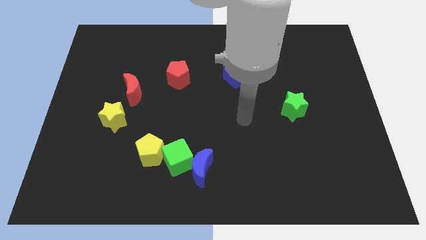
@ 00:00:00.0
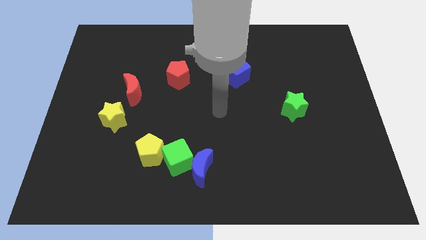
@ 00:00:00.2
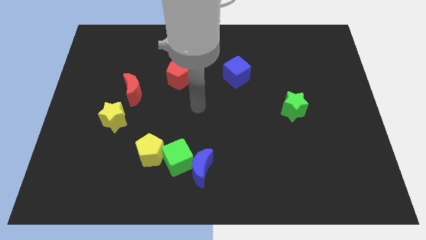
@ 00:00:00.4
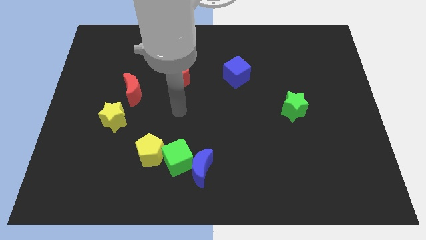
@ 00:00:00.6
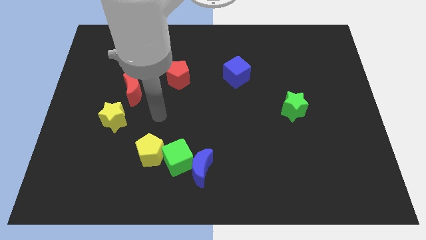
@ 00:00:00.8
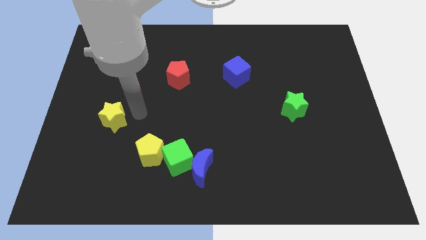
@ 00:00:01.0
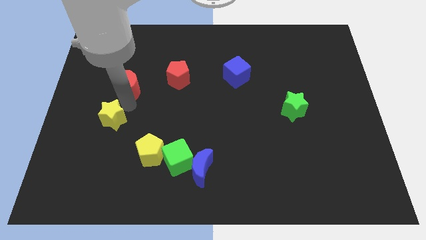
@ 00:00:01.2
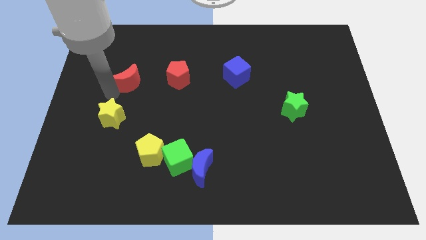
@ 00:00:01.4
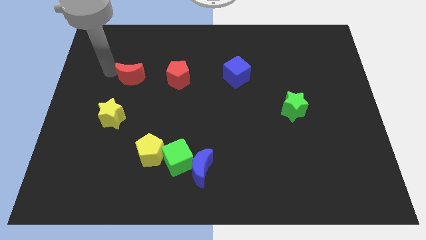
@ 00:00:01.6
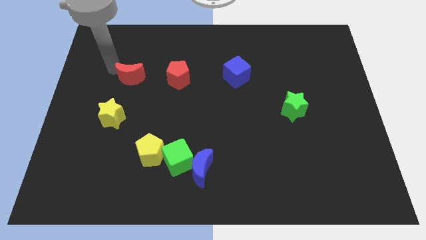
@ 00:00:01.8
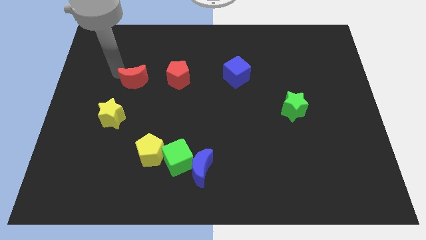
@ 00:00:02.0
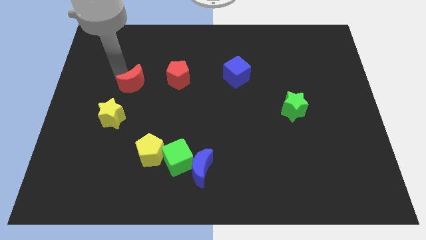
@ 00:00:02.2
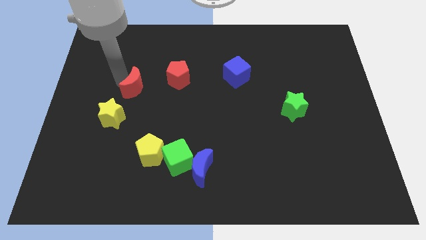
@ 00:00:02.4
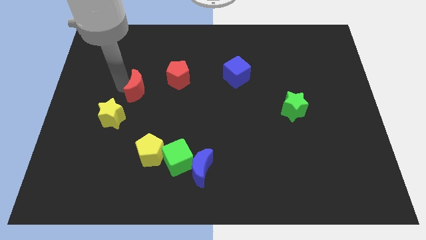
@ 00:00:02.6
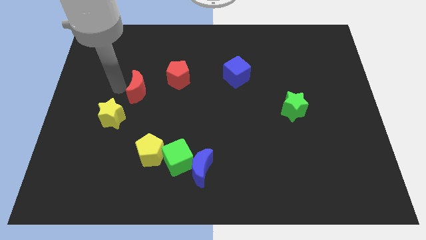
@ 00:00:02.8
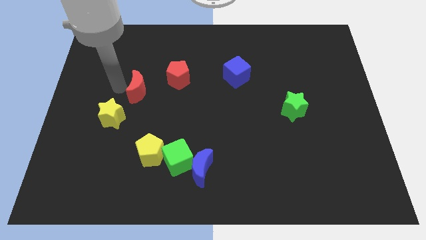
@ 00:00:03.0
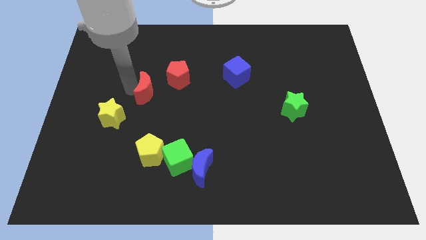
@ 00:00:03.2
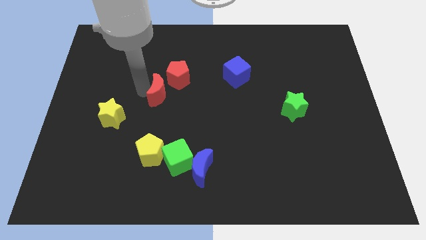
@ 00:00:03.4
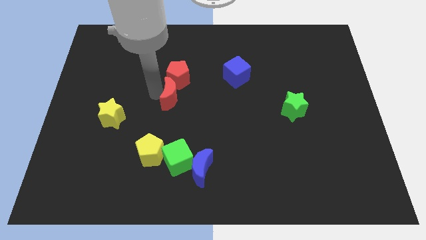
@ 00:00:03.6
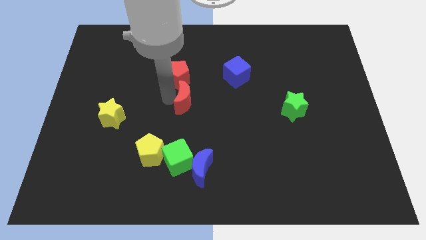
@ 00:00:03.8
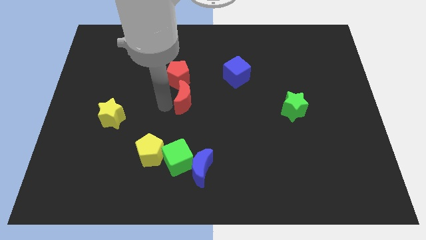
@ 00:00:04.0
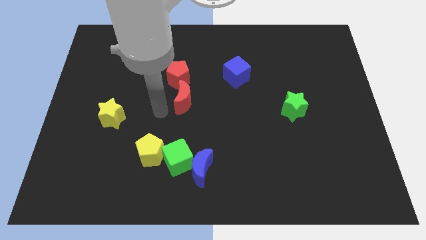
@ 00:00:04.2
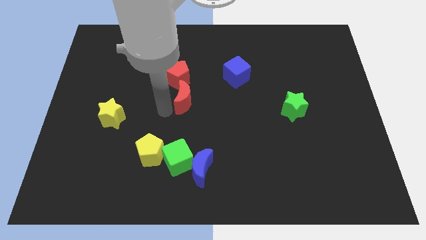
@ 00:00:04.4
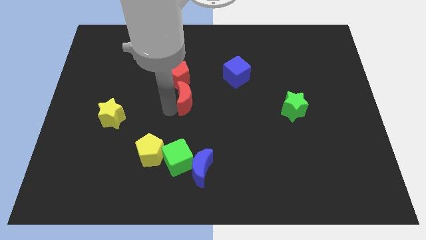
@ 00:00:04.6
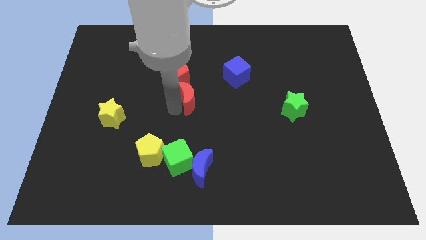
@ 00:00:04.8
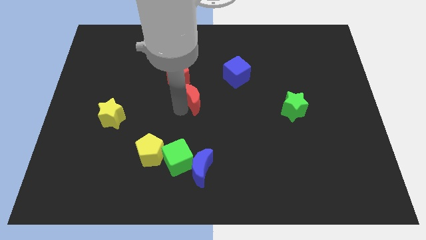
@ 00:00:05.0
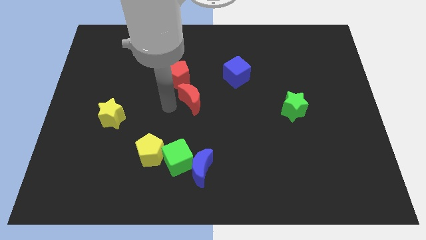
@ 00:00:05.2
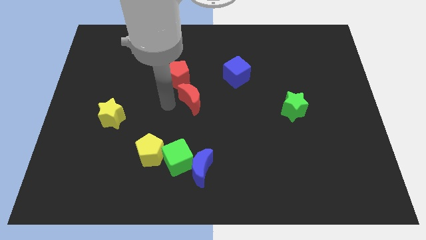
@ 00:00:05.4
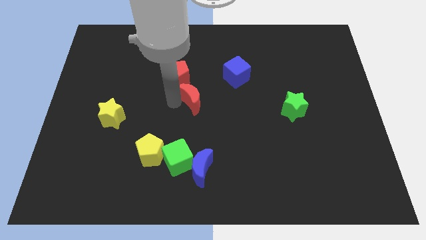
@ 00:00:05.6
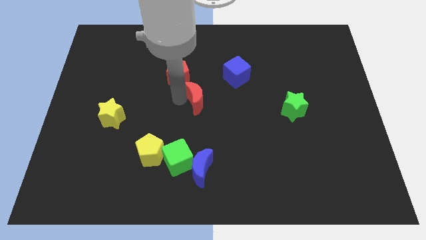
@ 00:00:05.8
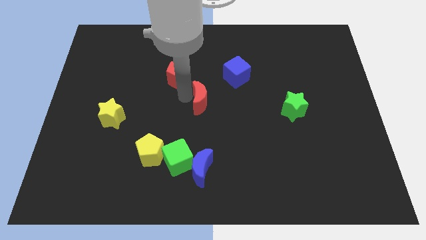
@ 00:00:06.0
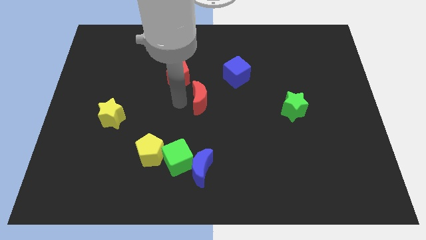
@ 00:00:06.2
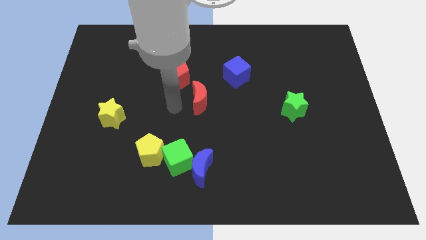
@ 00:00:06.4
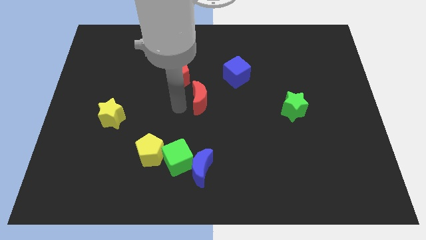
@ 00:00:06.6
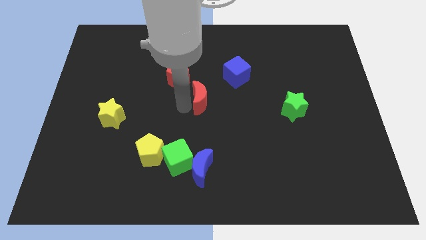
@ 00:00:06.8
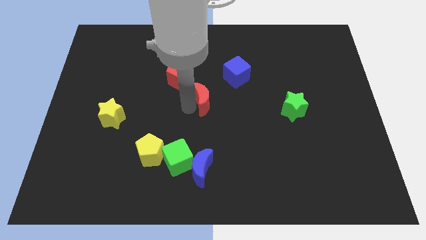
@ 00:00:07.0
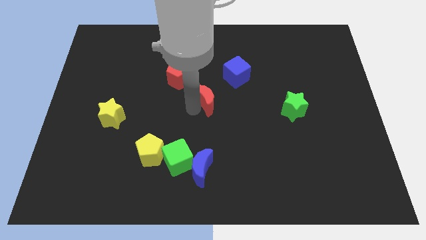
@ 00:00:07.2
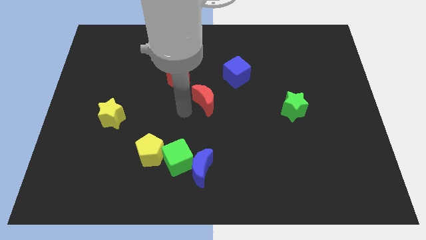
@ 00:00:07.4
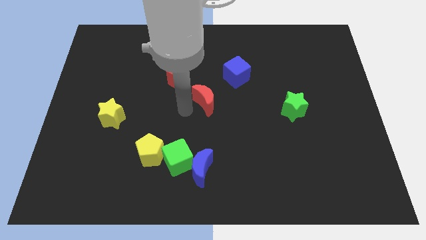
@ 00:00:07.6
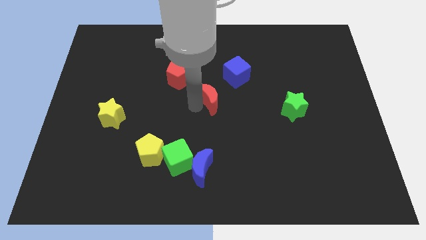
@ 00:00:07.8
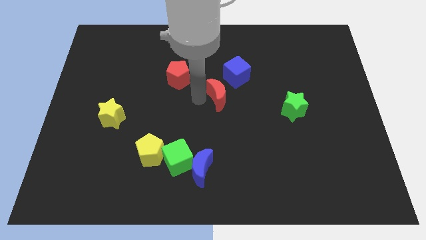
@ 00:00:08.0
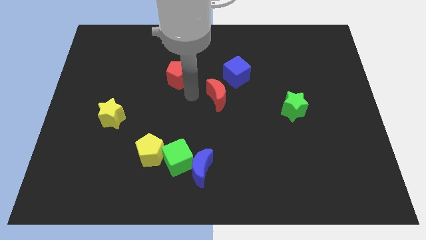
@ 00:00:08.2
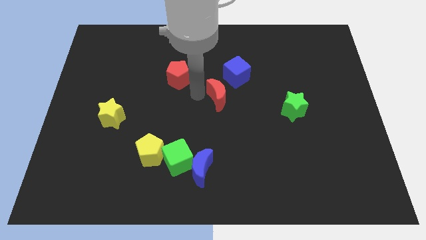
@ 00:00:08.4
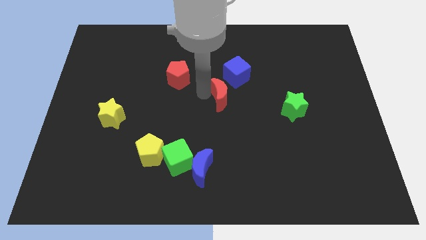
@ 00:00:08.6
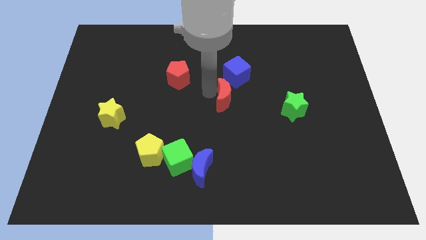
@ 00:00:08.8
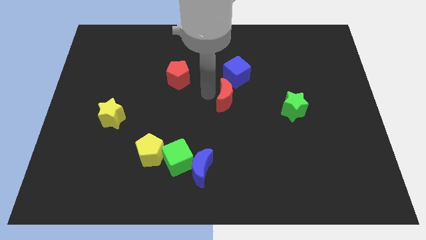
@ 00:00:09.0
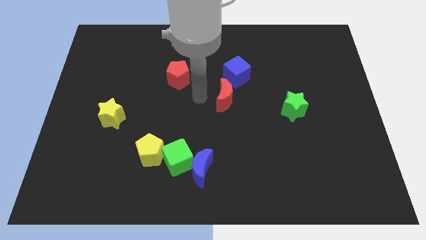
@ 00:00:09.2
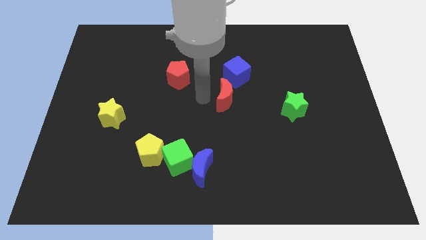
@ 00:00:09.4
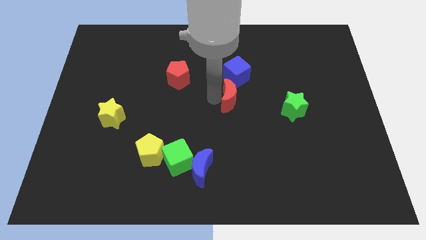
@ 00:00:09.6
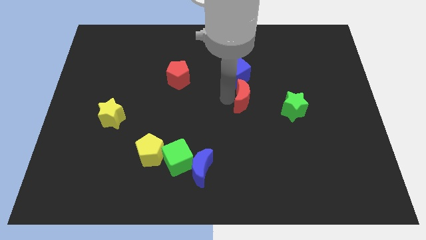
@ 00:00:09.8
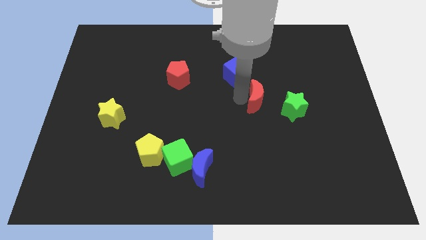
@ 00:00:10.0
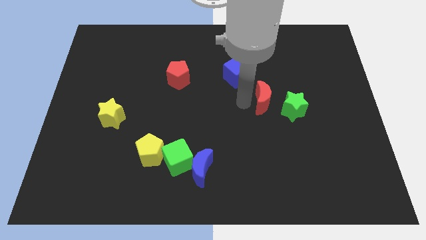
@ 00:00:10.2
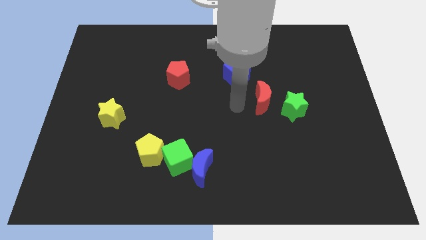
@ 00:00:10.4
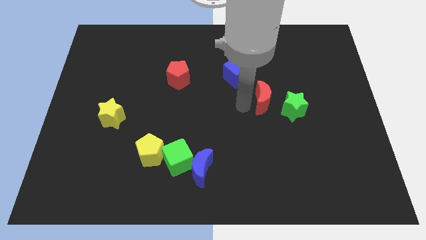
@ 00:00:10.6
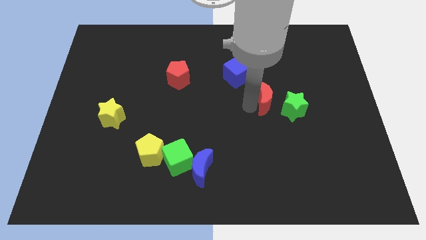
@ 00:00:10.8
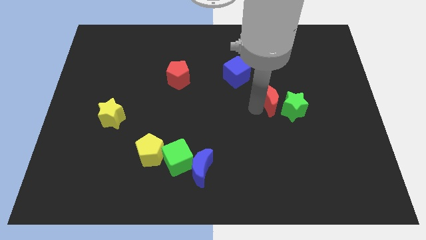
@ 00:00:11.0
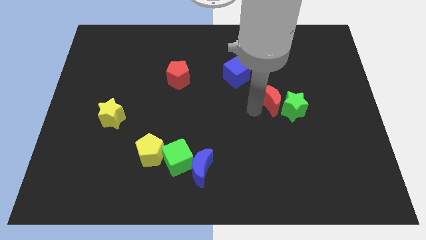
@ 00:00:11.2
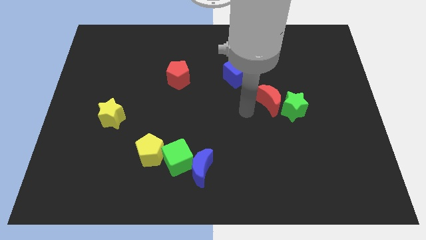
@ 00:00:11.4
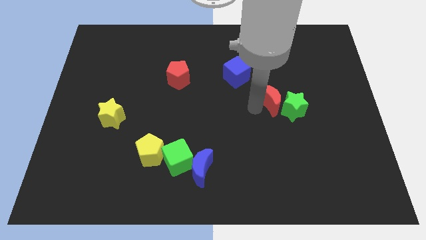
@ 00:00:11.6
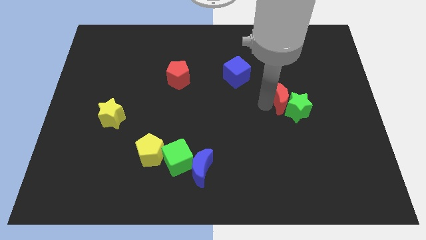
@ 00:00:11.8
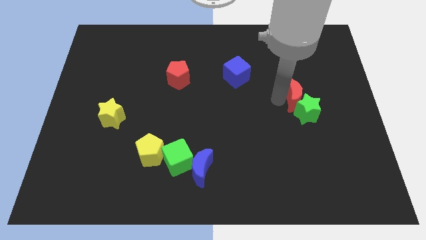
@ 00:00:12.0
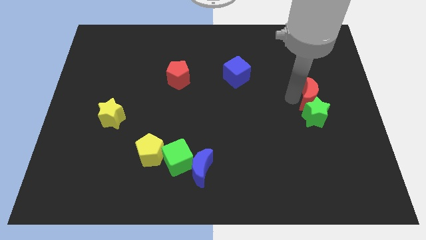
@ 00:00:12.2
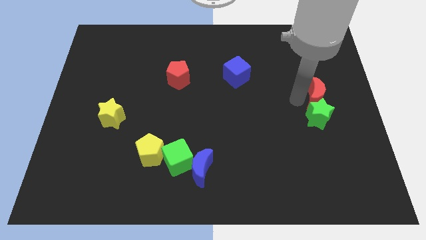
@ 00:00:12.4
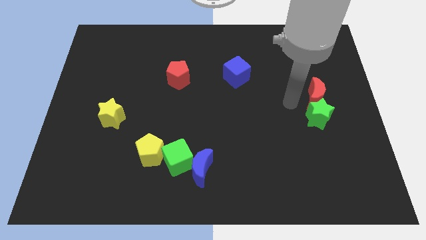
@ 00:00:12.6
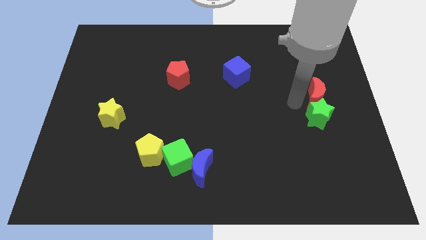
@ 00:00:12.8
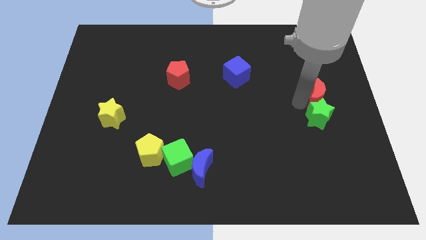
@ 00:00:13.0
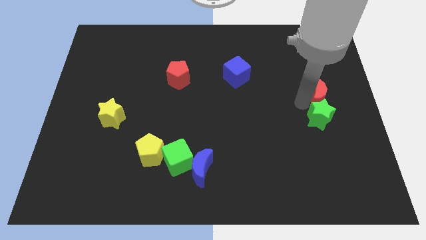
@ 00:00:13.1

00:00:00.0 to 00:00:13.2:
slide the red moon to the right side of the board
